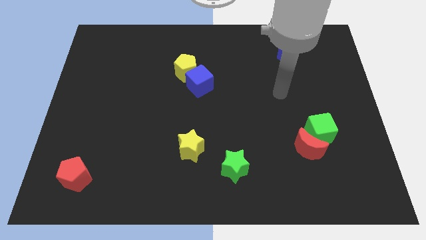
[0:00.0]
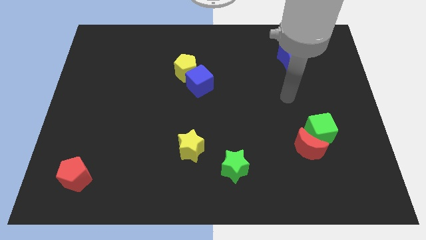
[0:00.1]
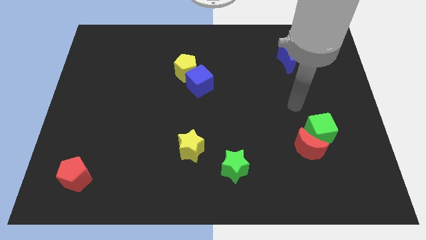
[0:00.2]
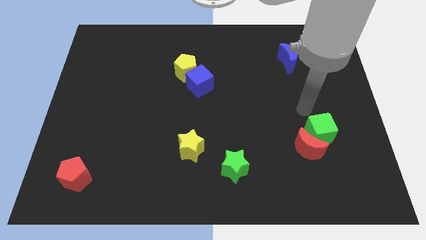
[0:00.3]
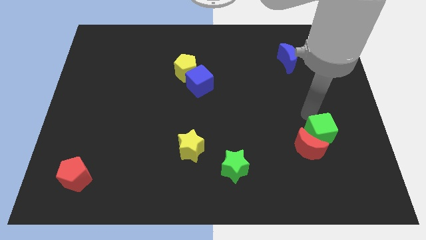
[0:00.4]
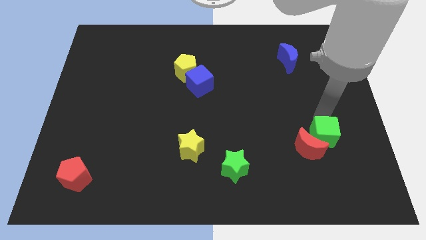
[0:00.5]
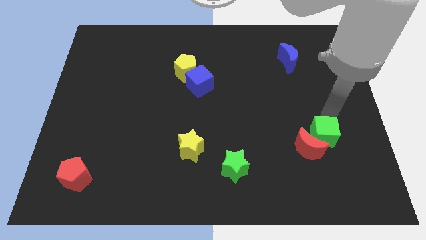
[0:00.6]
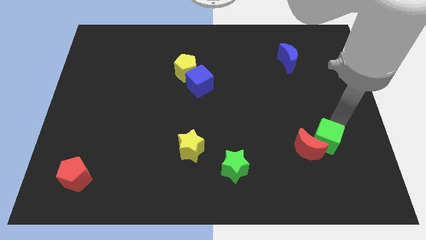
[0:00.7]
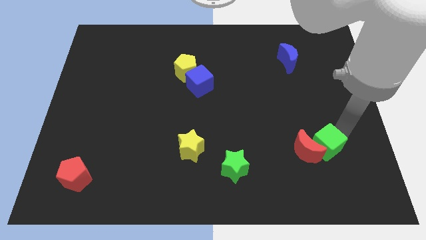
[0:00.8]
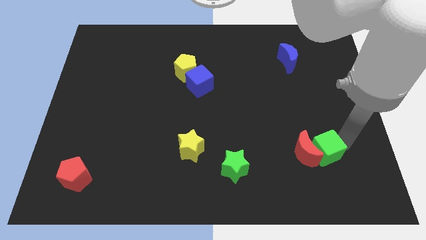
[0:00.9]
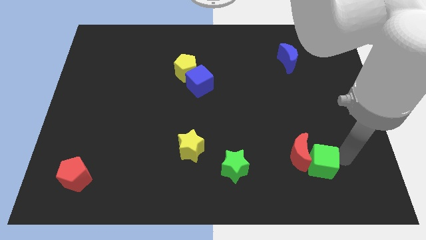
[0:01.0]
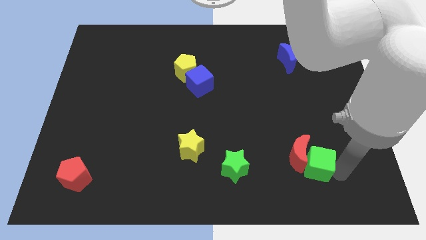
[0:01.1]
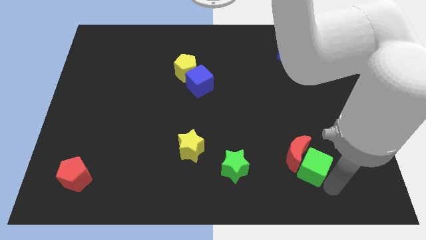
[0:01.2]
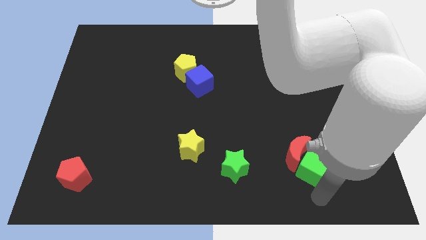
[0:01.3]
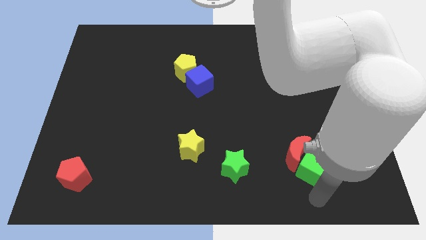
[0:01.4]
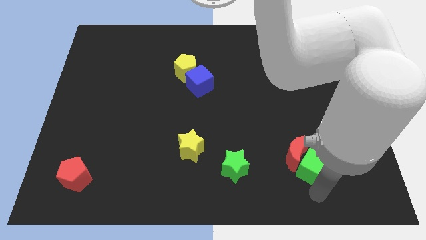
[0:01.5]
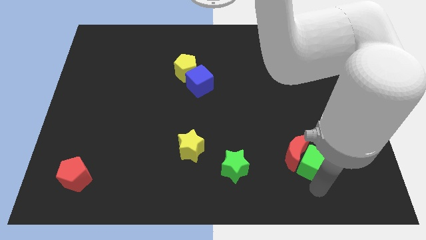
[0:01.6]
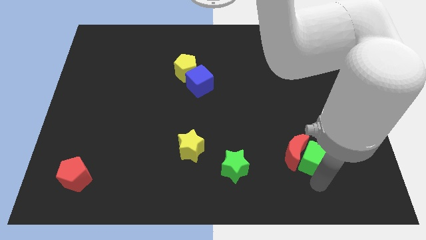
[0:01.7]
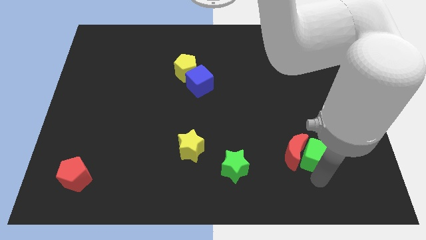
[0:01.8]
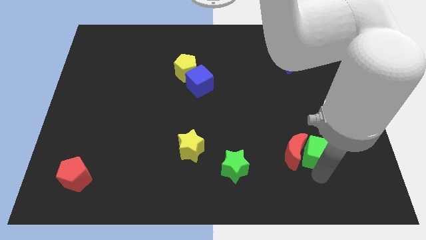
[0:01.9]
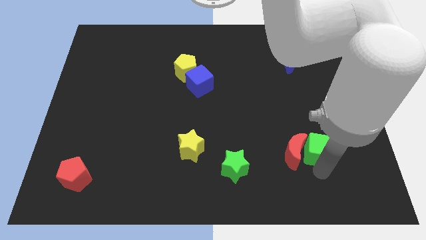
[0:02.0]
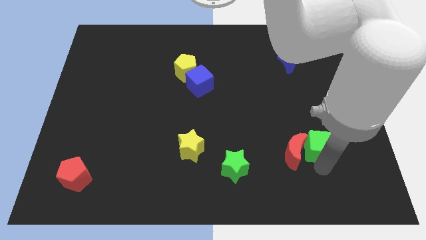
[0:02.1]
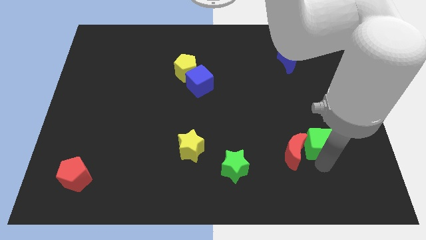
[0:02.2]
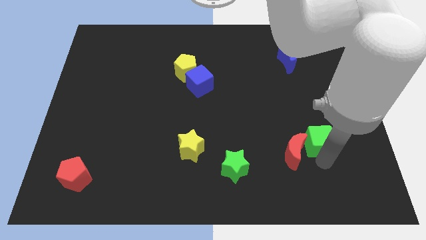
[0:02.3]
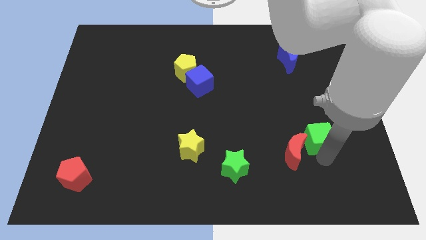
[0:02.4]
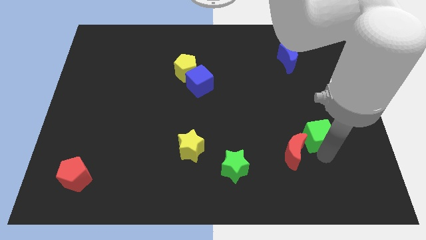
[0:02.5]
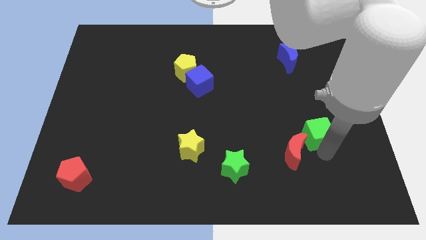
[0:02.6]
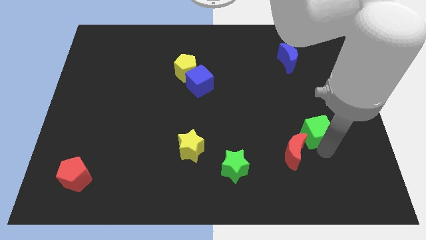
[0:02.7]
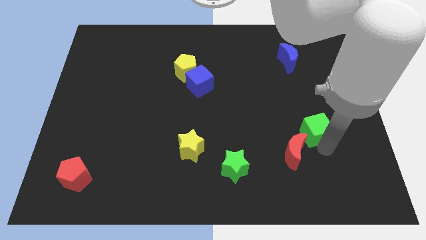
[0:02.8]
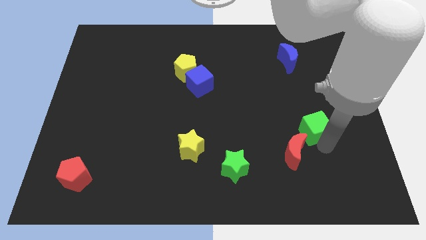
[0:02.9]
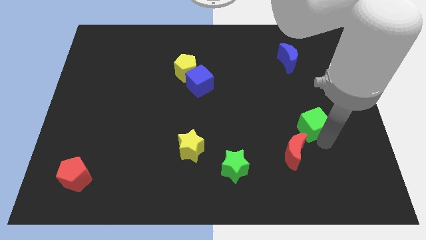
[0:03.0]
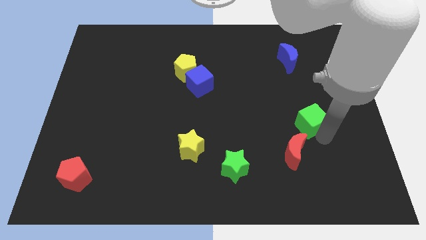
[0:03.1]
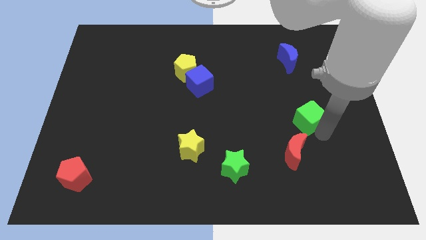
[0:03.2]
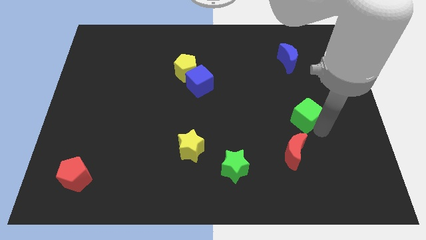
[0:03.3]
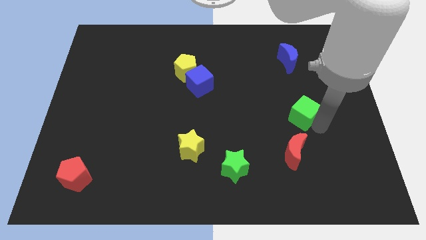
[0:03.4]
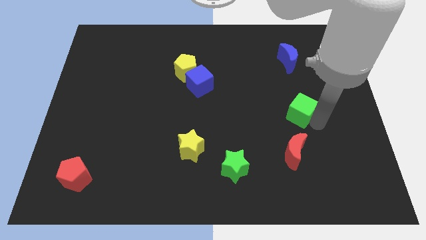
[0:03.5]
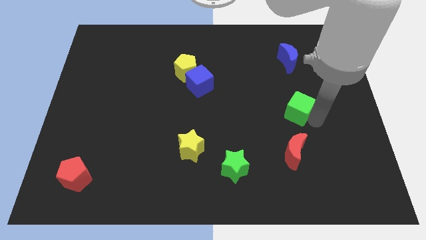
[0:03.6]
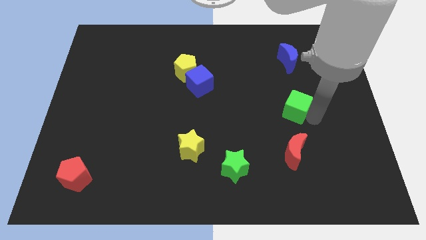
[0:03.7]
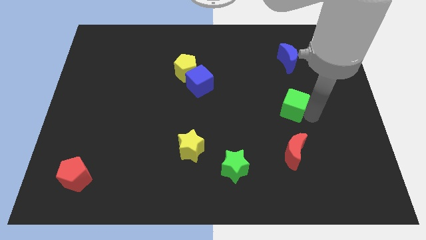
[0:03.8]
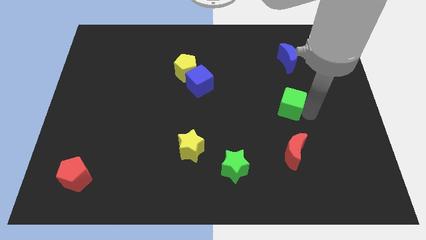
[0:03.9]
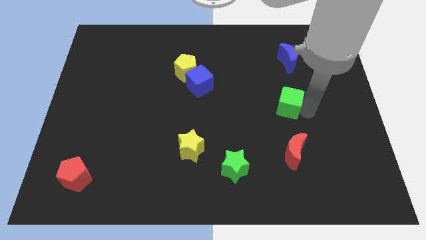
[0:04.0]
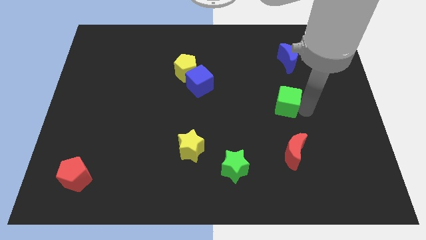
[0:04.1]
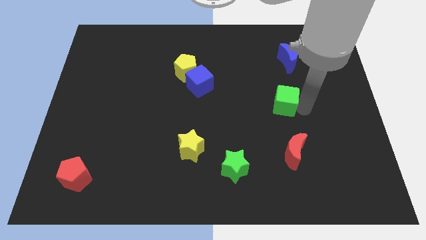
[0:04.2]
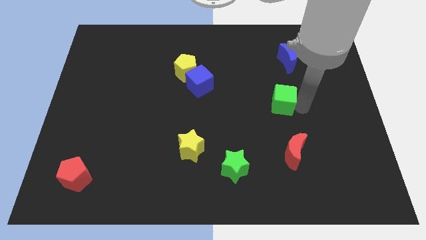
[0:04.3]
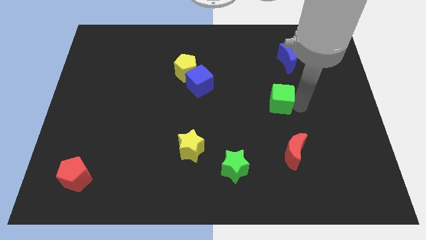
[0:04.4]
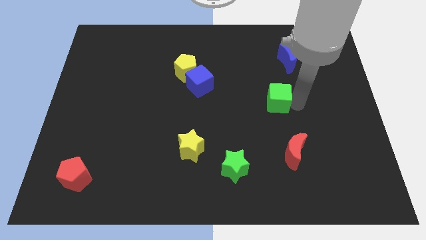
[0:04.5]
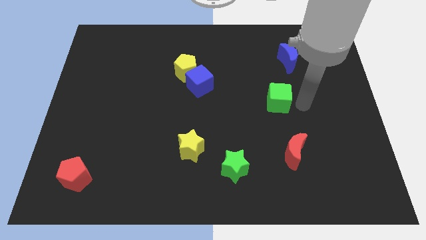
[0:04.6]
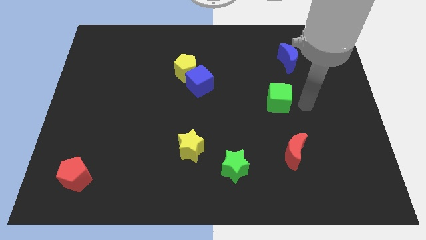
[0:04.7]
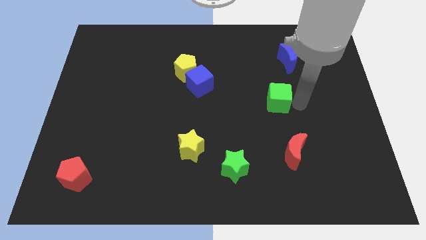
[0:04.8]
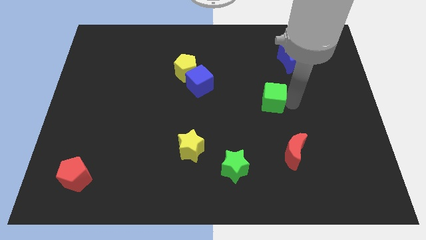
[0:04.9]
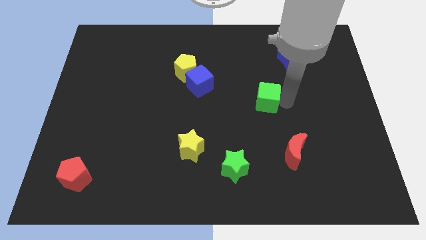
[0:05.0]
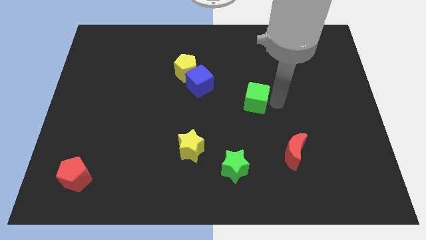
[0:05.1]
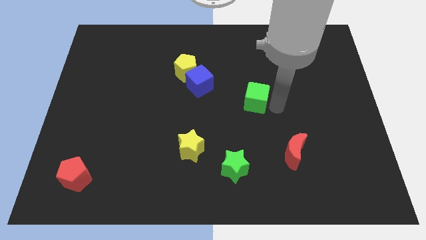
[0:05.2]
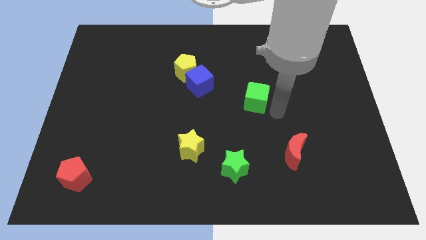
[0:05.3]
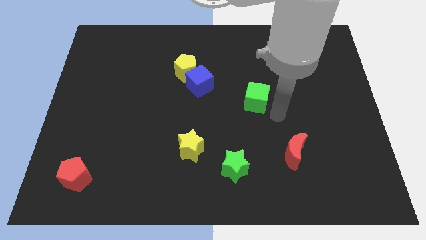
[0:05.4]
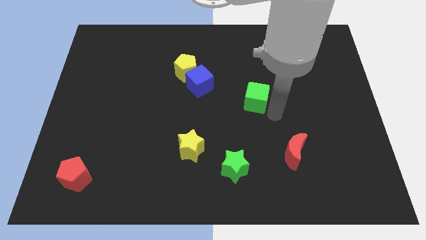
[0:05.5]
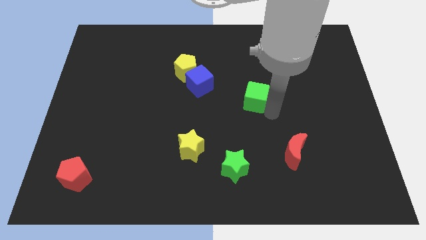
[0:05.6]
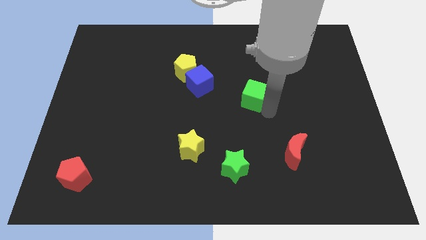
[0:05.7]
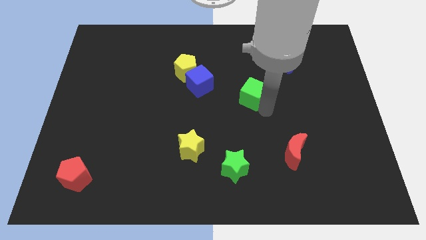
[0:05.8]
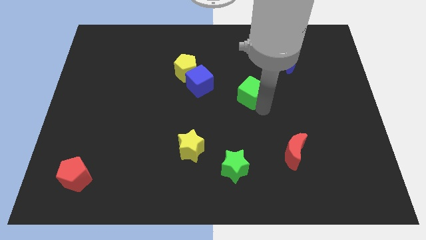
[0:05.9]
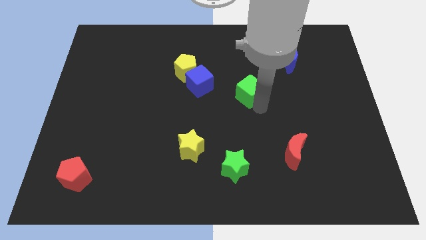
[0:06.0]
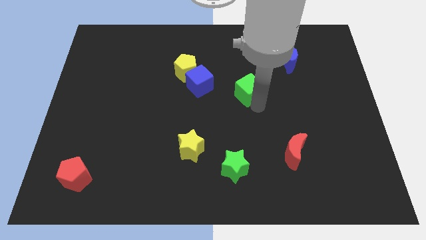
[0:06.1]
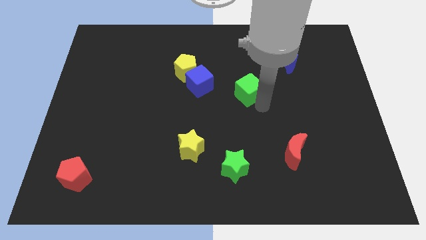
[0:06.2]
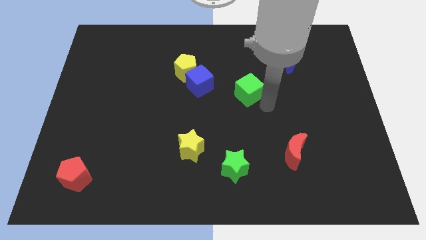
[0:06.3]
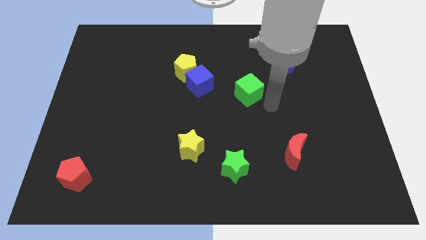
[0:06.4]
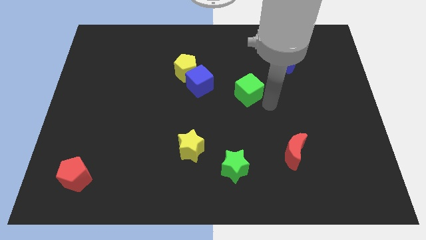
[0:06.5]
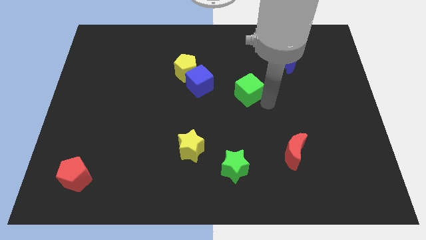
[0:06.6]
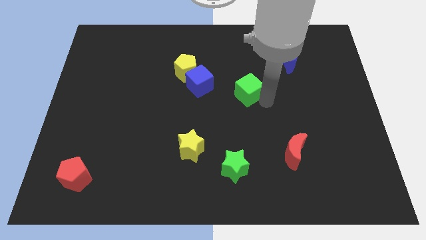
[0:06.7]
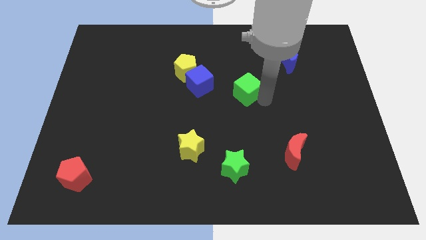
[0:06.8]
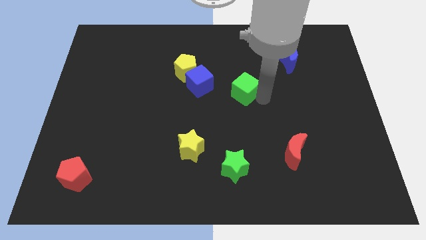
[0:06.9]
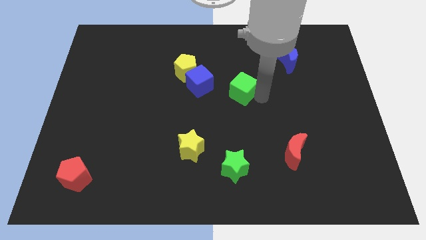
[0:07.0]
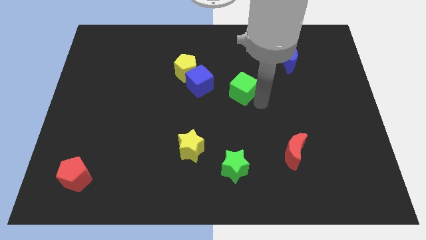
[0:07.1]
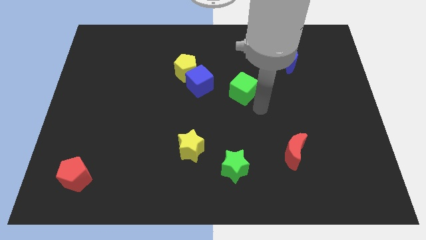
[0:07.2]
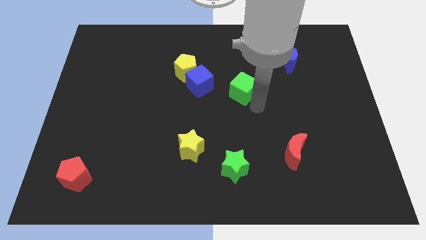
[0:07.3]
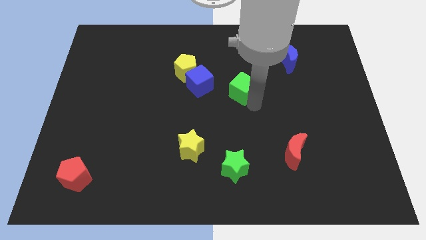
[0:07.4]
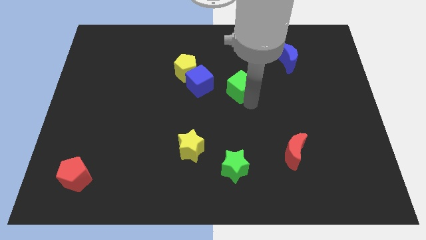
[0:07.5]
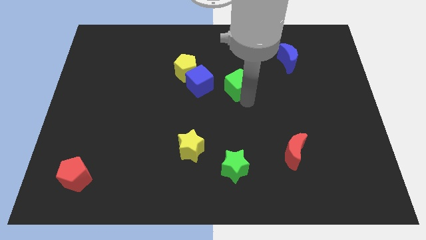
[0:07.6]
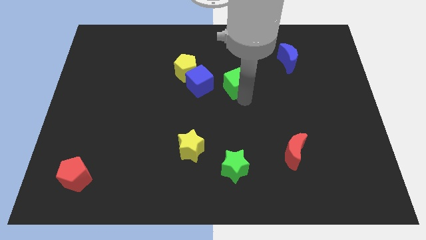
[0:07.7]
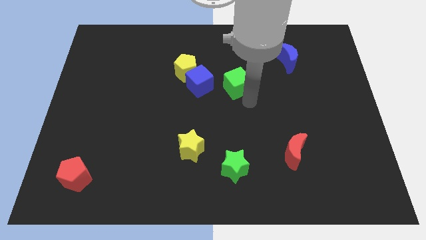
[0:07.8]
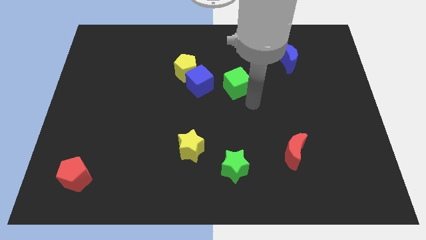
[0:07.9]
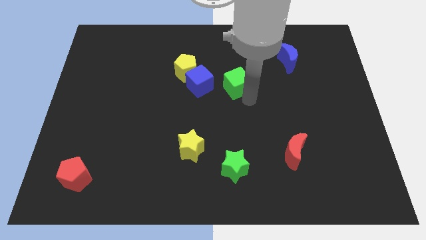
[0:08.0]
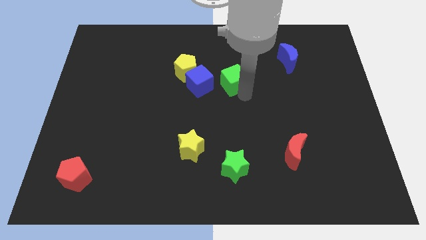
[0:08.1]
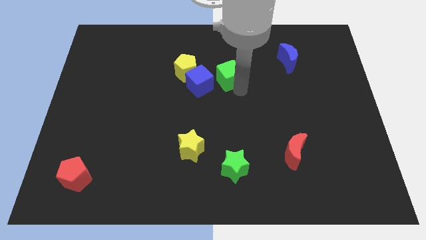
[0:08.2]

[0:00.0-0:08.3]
slide the green cube to the top right of the blue cube
